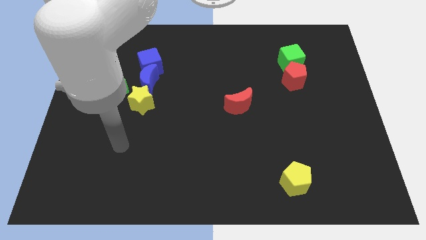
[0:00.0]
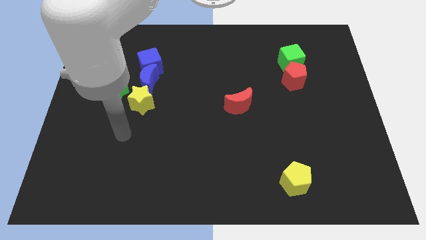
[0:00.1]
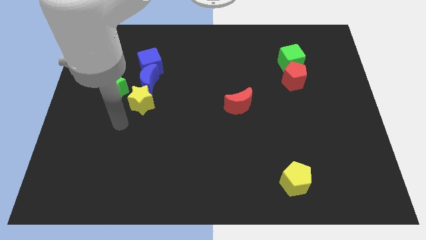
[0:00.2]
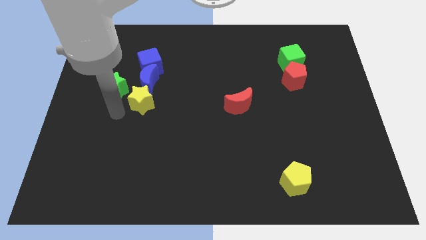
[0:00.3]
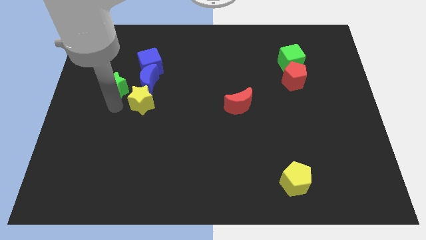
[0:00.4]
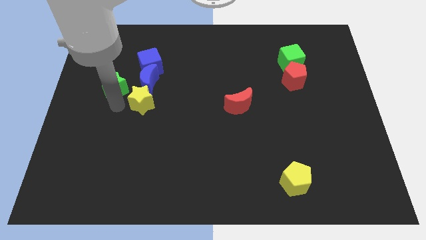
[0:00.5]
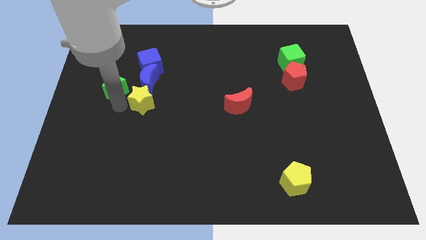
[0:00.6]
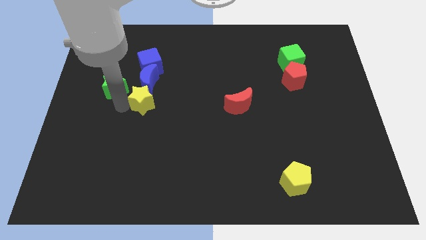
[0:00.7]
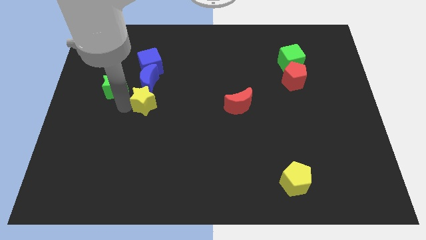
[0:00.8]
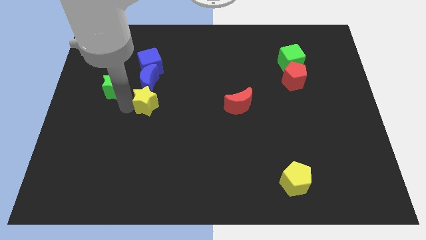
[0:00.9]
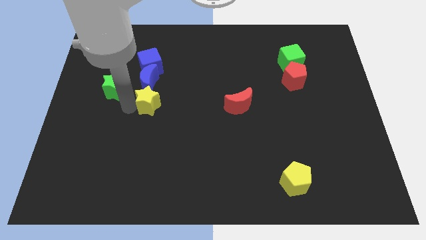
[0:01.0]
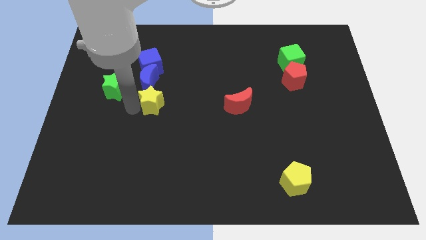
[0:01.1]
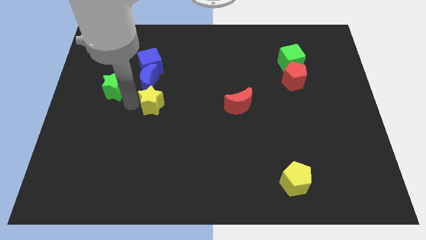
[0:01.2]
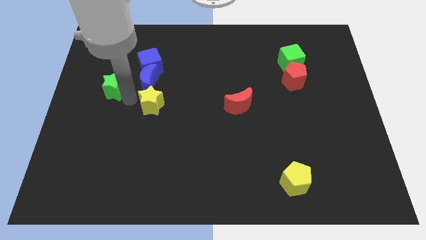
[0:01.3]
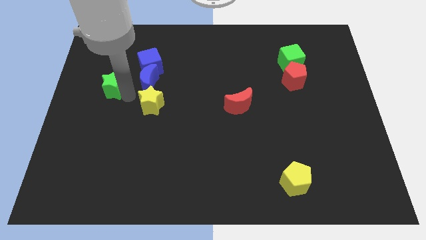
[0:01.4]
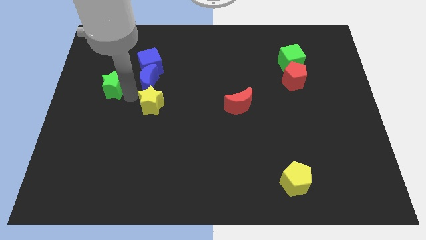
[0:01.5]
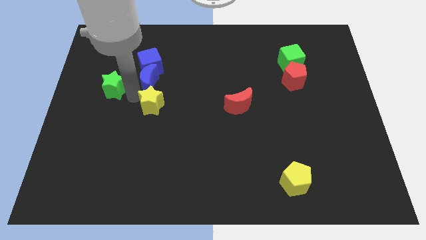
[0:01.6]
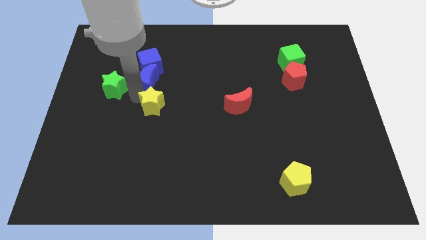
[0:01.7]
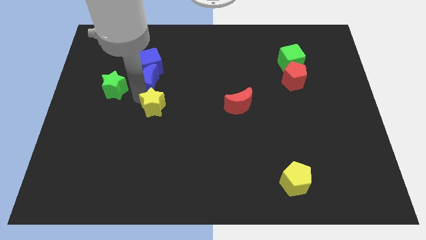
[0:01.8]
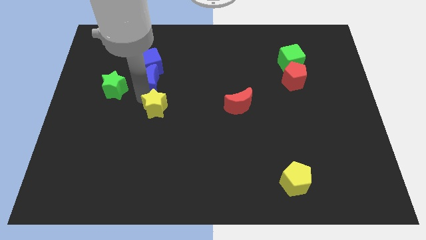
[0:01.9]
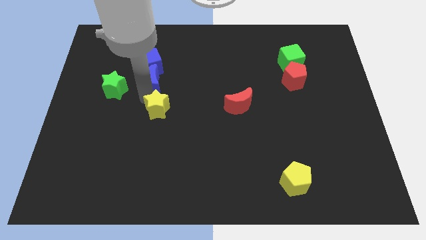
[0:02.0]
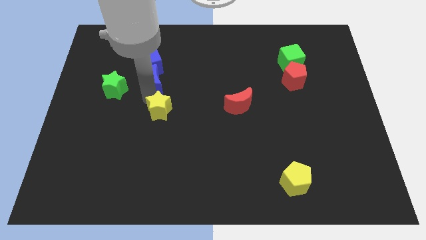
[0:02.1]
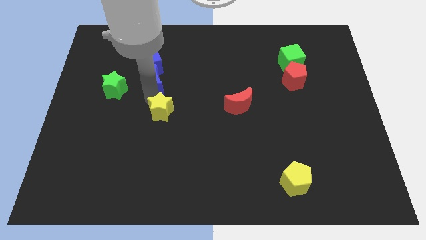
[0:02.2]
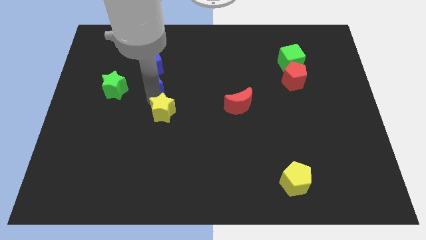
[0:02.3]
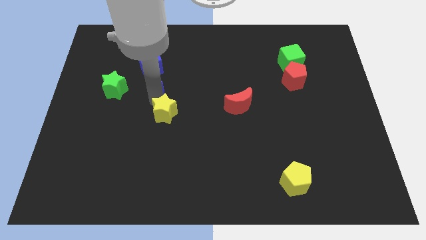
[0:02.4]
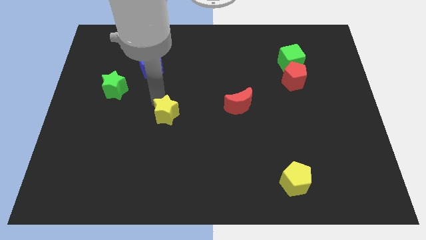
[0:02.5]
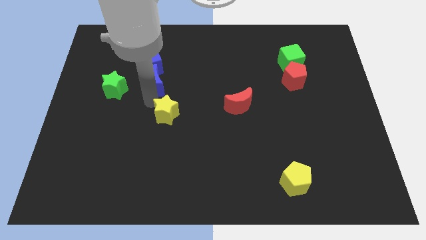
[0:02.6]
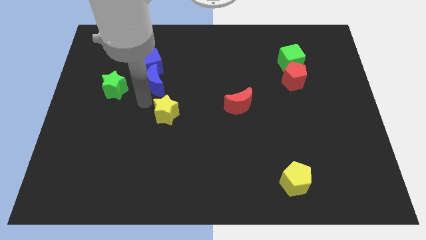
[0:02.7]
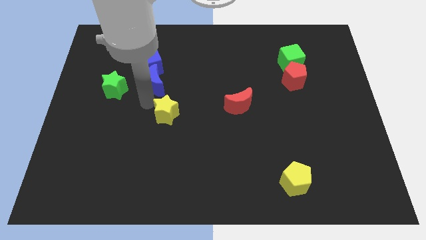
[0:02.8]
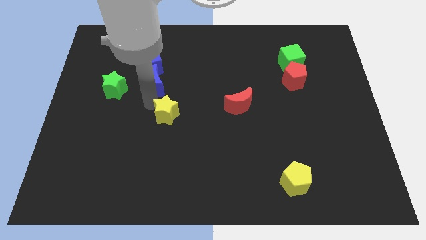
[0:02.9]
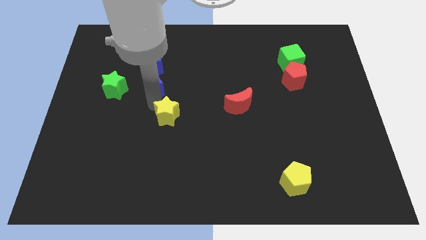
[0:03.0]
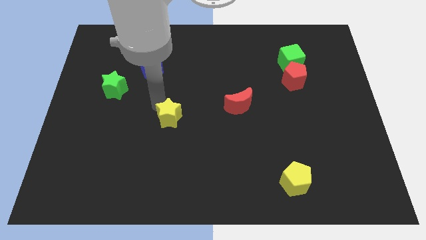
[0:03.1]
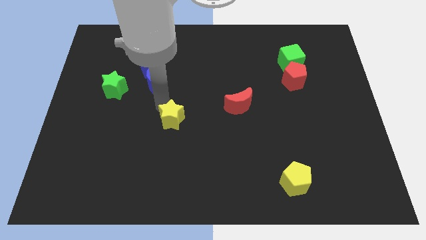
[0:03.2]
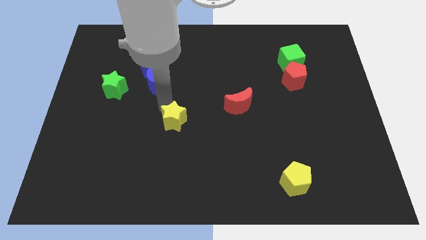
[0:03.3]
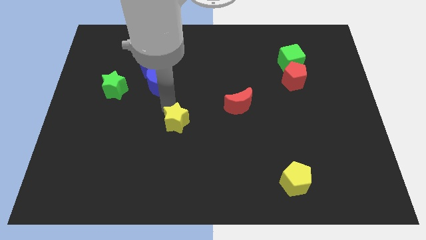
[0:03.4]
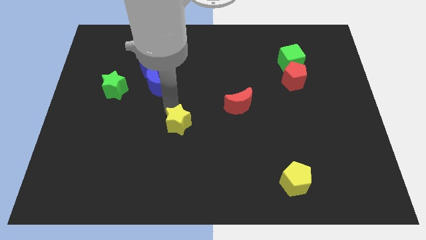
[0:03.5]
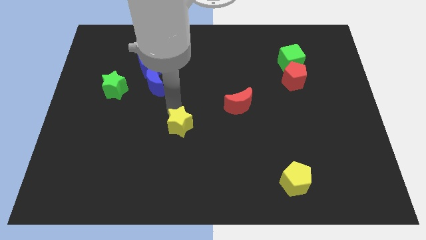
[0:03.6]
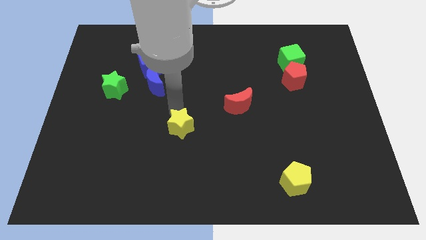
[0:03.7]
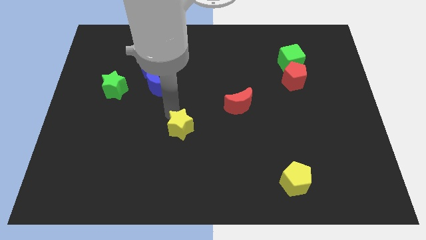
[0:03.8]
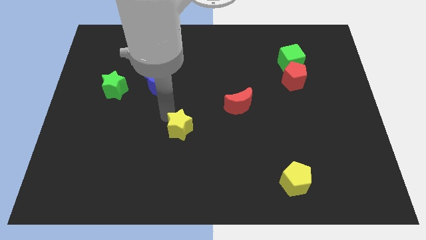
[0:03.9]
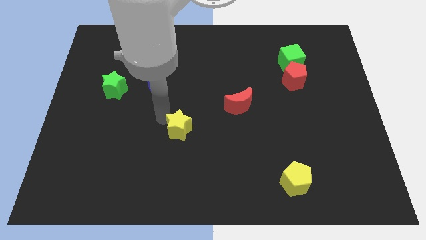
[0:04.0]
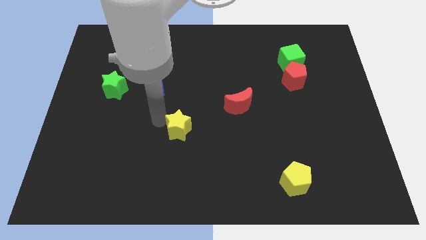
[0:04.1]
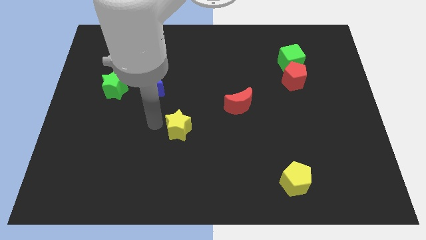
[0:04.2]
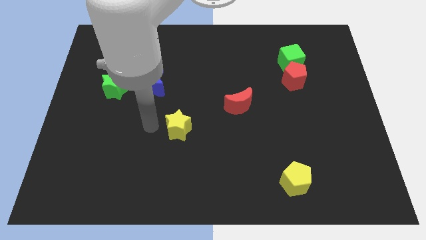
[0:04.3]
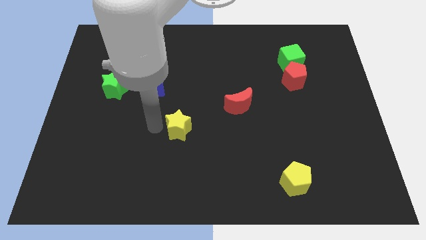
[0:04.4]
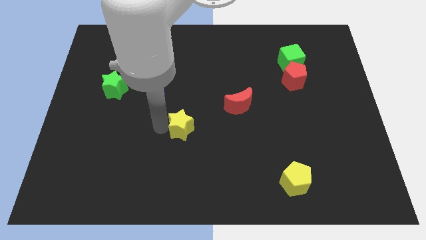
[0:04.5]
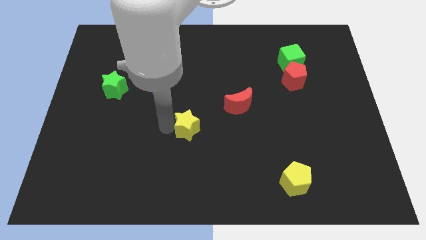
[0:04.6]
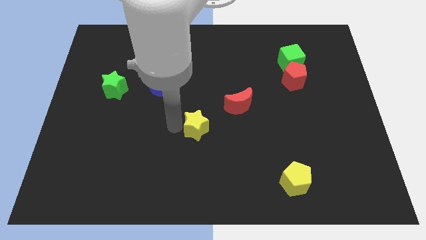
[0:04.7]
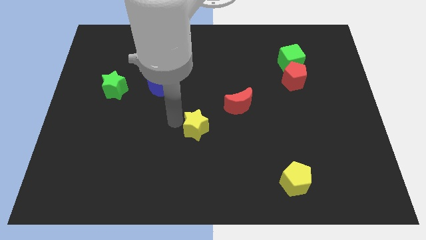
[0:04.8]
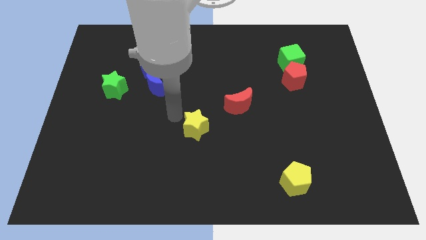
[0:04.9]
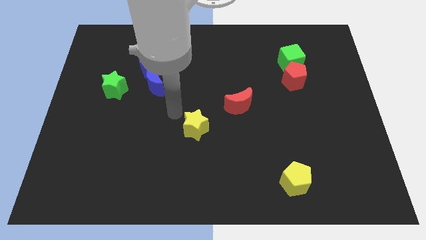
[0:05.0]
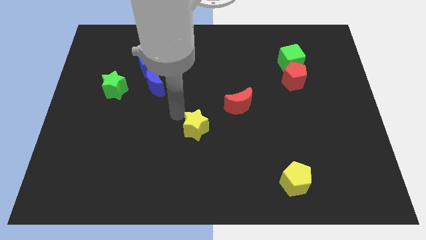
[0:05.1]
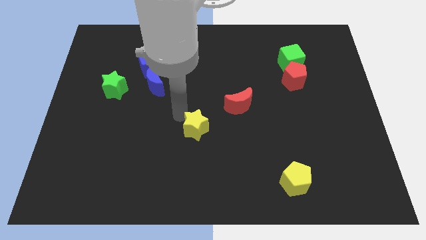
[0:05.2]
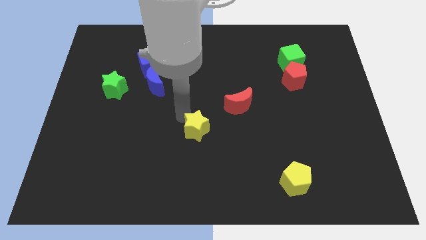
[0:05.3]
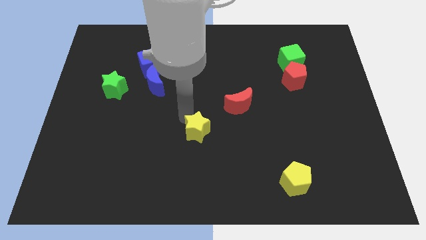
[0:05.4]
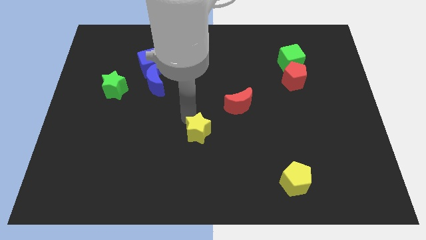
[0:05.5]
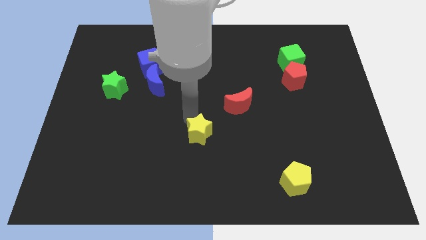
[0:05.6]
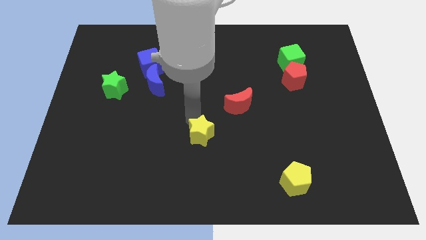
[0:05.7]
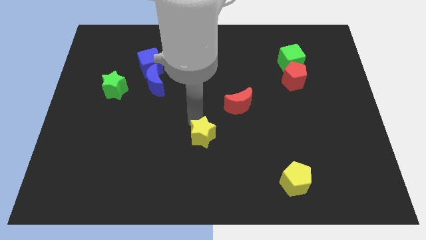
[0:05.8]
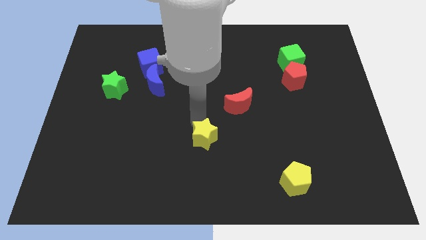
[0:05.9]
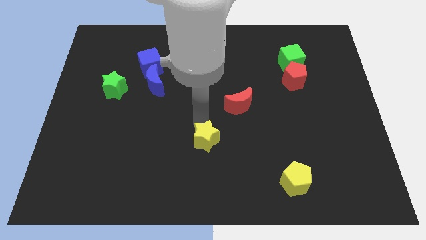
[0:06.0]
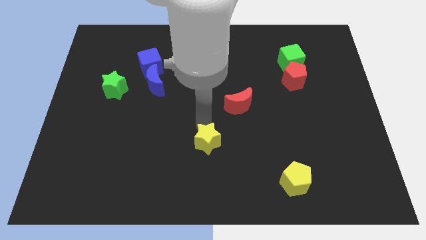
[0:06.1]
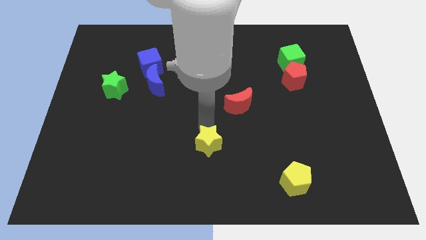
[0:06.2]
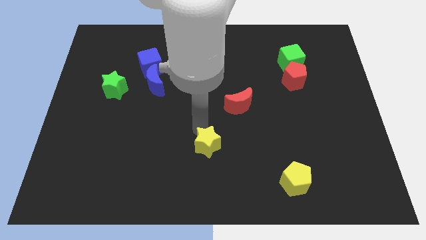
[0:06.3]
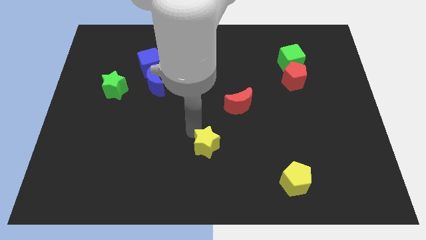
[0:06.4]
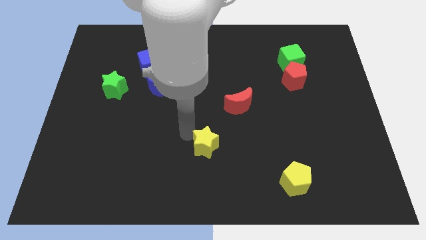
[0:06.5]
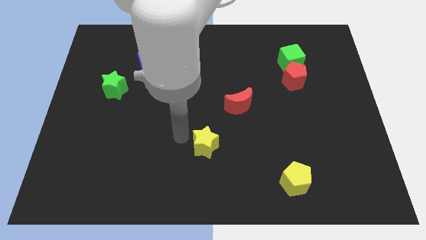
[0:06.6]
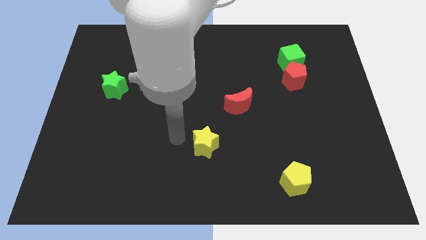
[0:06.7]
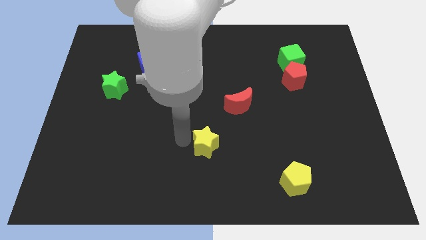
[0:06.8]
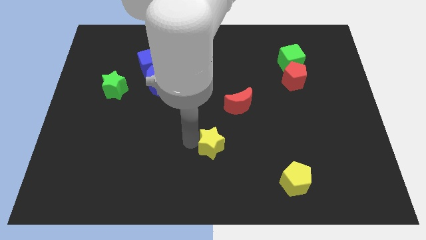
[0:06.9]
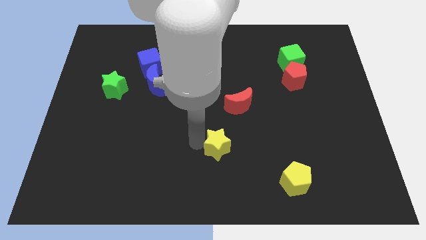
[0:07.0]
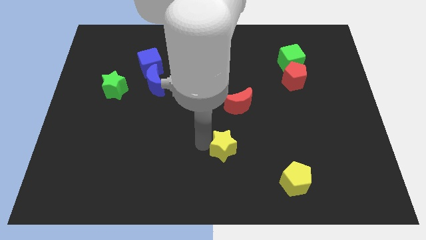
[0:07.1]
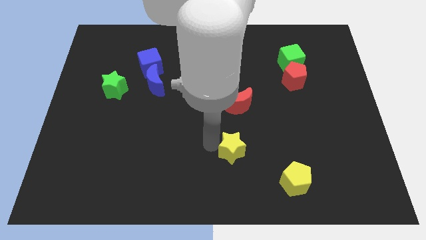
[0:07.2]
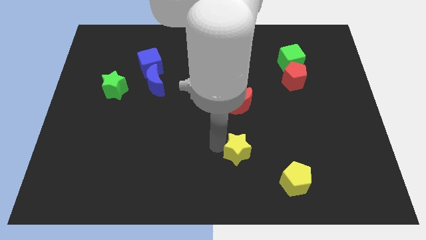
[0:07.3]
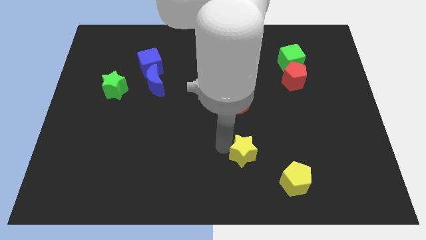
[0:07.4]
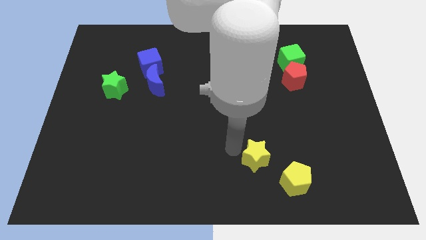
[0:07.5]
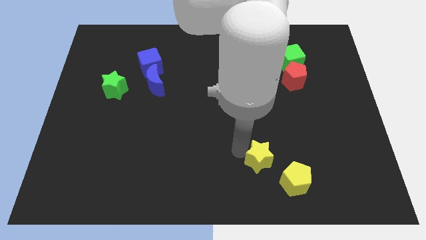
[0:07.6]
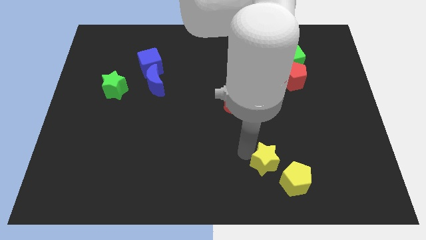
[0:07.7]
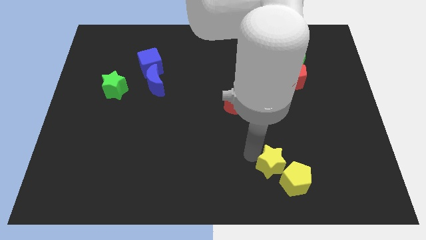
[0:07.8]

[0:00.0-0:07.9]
put the yellow star towards the yellow pentagon

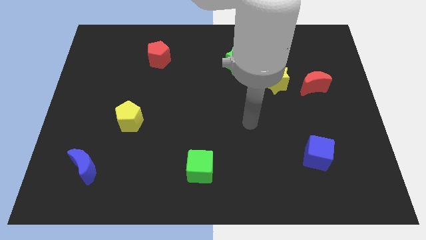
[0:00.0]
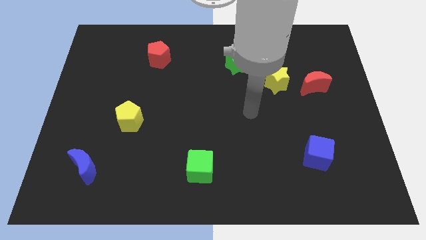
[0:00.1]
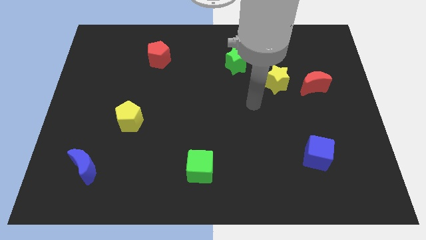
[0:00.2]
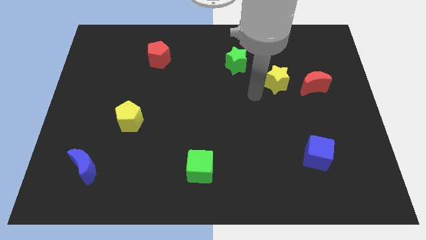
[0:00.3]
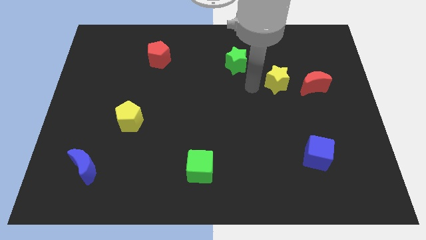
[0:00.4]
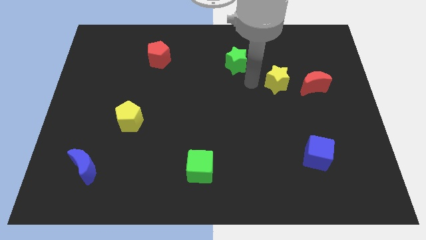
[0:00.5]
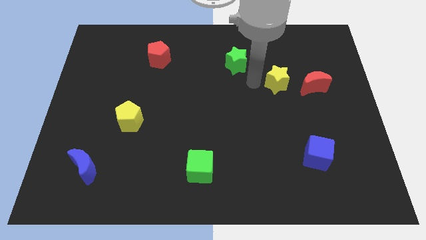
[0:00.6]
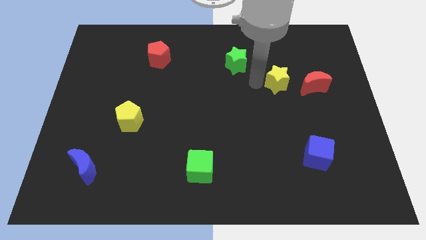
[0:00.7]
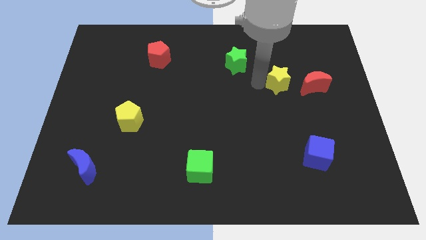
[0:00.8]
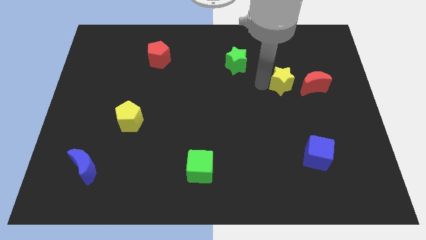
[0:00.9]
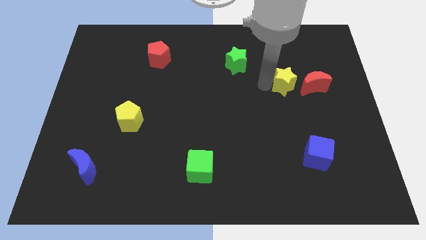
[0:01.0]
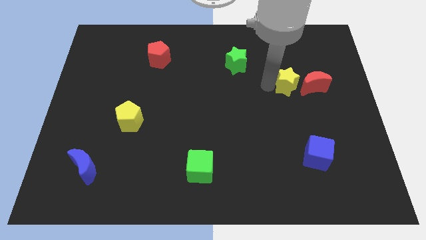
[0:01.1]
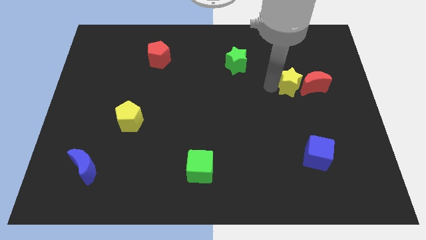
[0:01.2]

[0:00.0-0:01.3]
put the yellow star to the red moon
